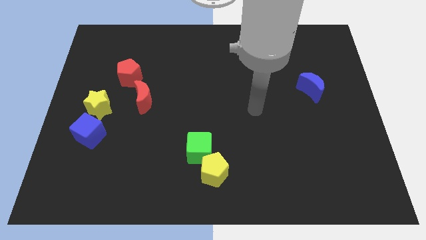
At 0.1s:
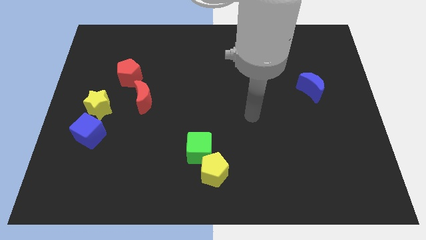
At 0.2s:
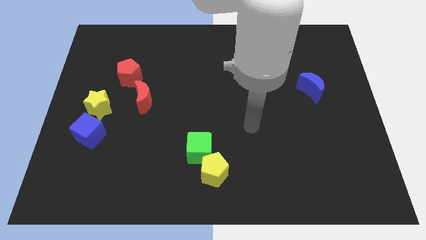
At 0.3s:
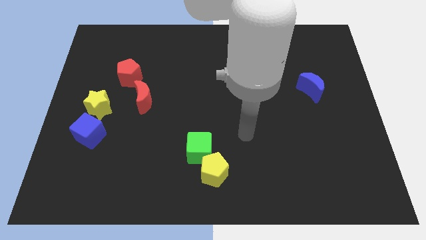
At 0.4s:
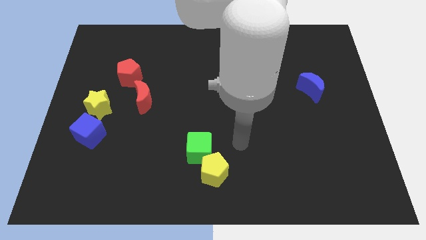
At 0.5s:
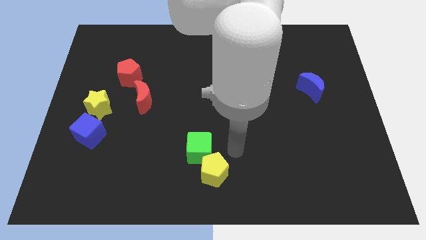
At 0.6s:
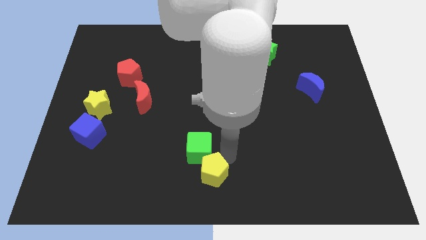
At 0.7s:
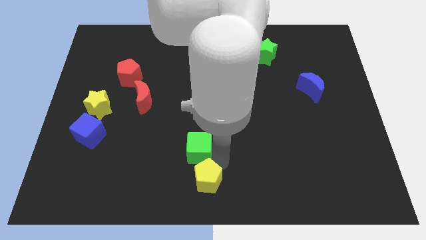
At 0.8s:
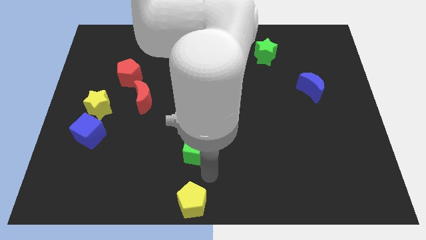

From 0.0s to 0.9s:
move the green cube away from the yellow pentagon

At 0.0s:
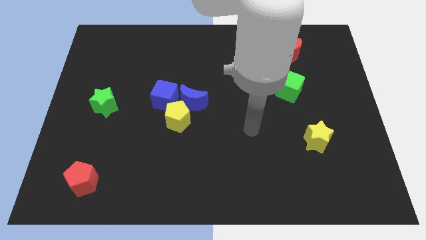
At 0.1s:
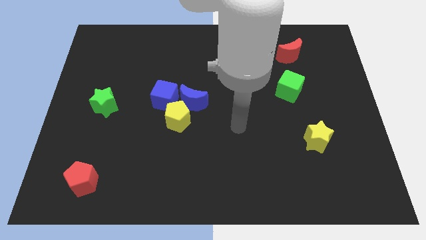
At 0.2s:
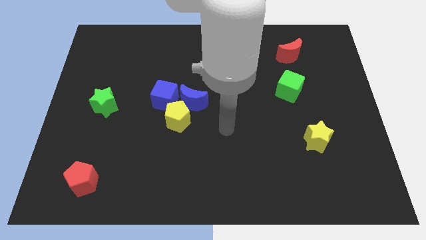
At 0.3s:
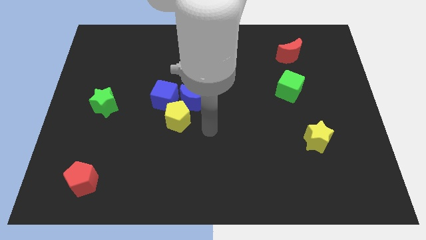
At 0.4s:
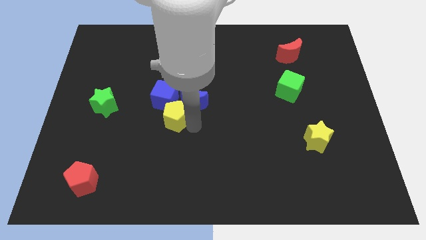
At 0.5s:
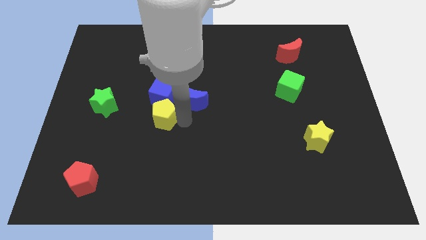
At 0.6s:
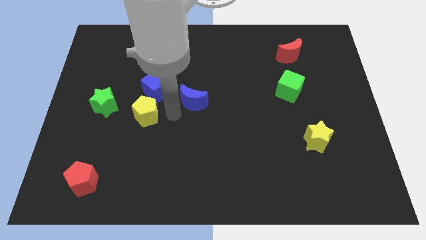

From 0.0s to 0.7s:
separate the blue moon from the yellow pentagon and blue cube

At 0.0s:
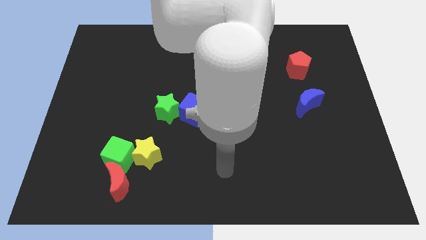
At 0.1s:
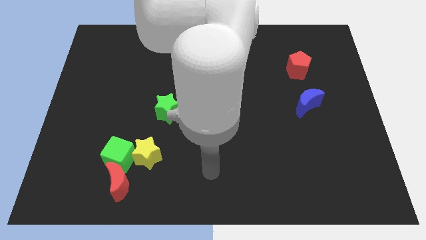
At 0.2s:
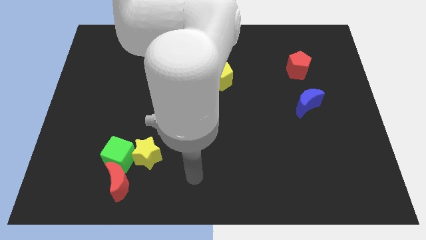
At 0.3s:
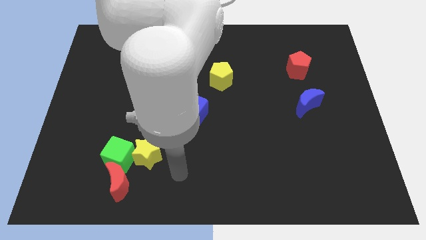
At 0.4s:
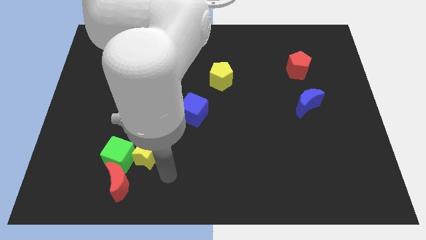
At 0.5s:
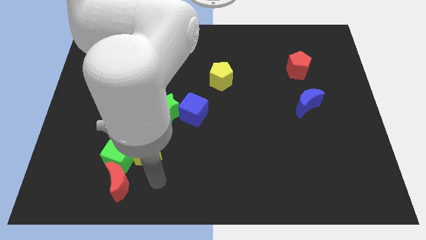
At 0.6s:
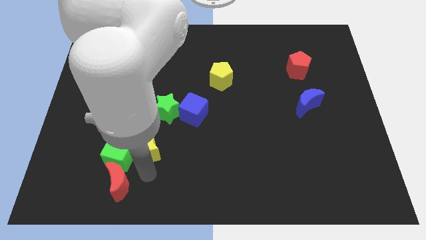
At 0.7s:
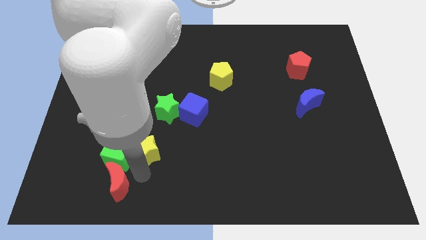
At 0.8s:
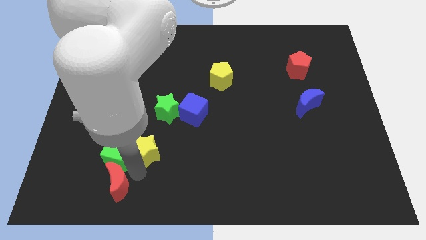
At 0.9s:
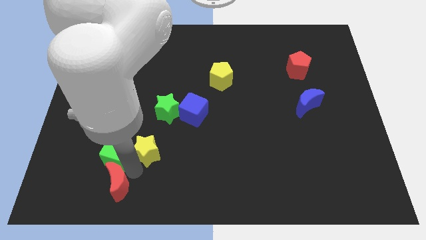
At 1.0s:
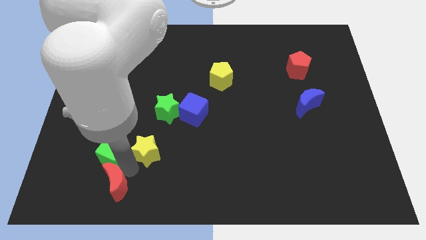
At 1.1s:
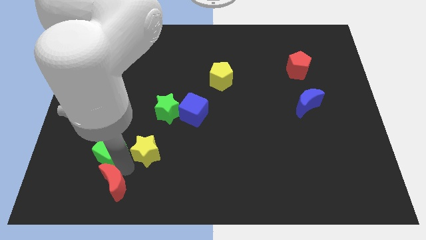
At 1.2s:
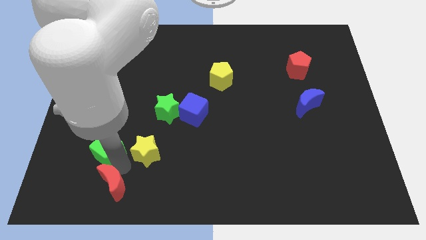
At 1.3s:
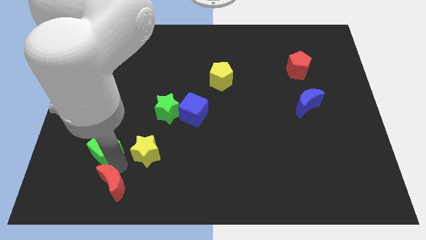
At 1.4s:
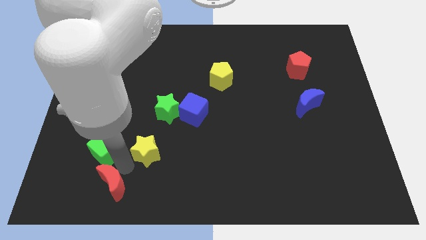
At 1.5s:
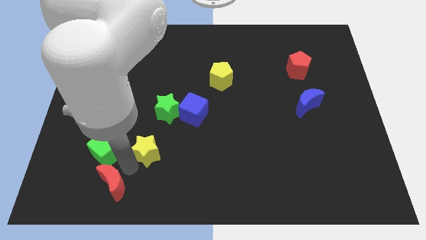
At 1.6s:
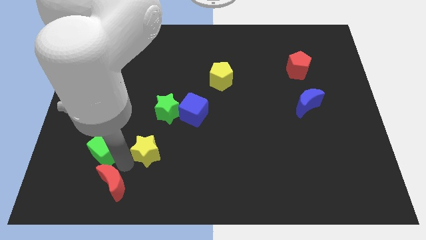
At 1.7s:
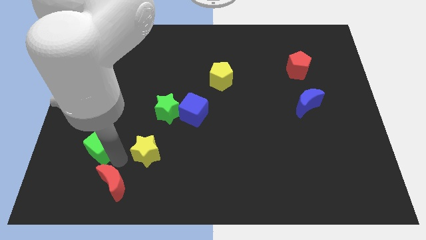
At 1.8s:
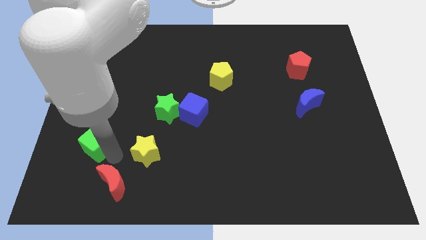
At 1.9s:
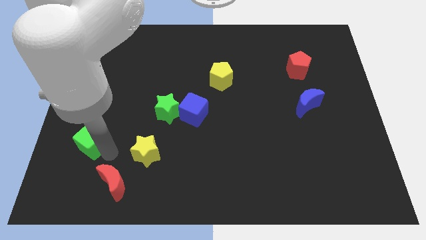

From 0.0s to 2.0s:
move the green cube away from the yellow star and red moon

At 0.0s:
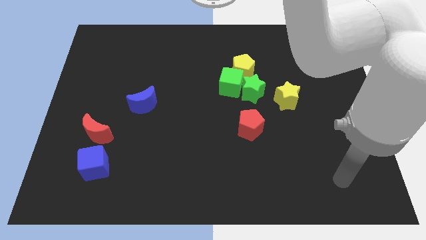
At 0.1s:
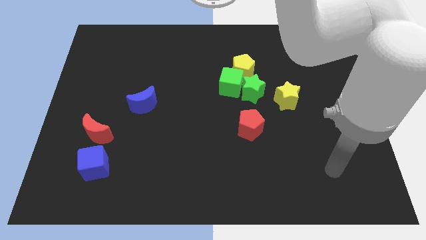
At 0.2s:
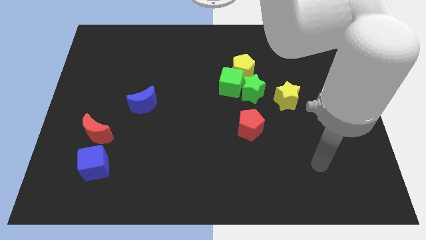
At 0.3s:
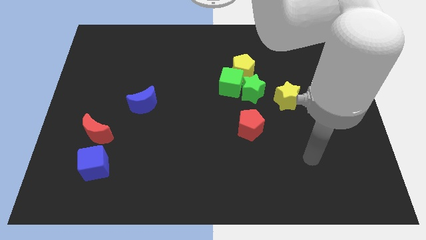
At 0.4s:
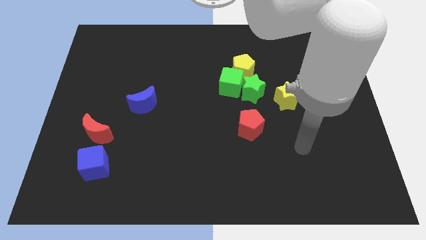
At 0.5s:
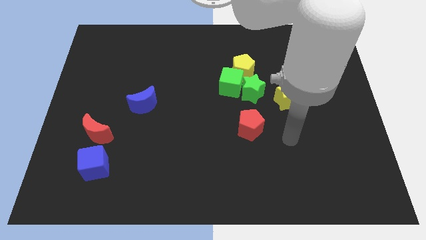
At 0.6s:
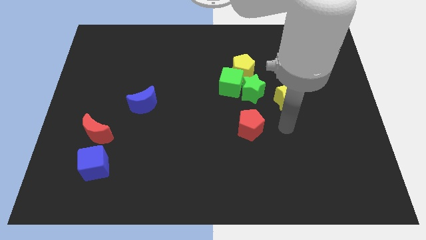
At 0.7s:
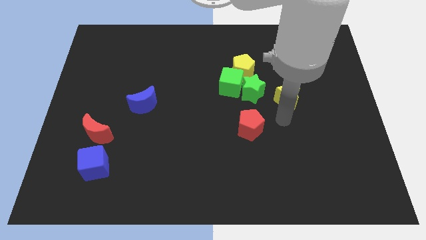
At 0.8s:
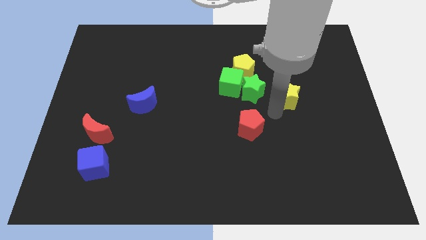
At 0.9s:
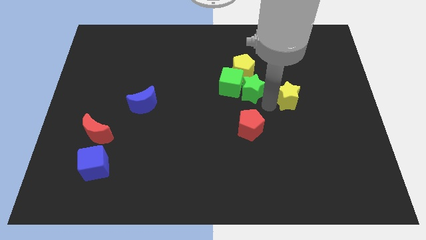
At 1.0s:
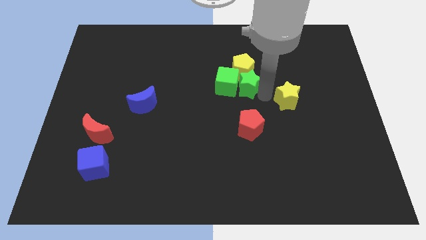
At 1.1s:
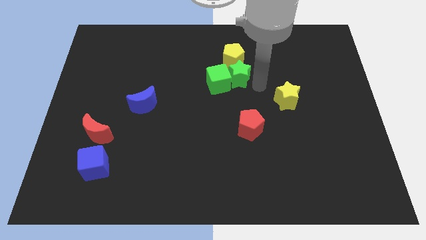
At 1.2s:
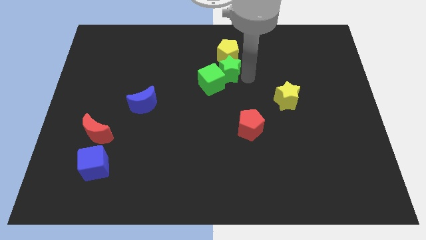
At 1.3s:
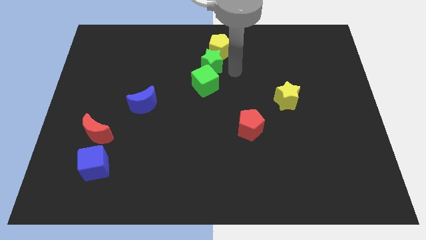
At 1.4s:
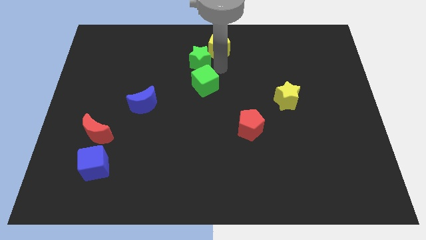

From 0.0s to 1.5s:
pull the green cube apart from the green star and yellow pentagon

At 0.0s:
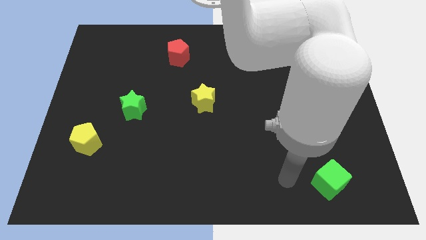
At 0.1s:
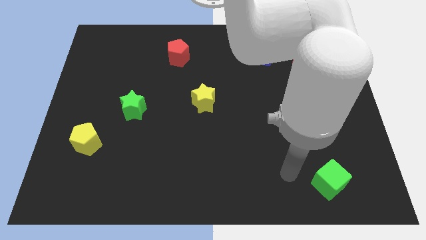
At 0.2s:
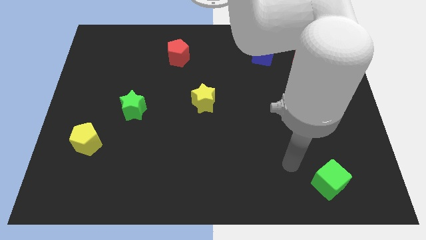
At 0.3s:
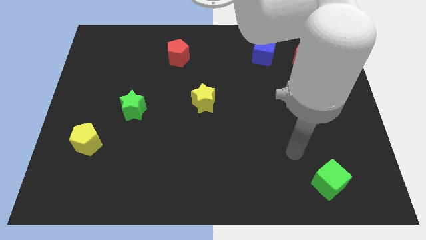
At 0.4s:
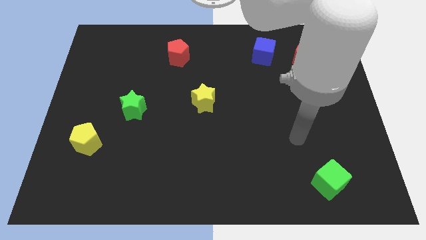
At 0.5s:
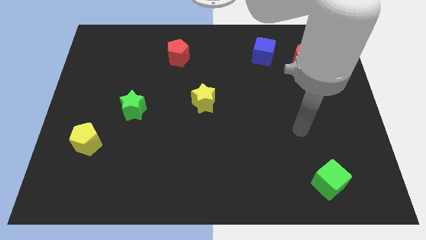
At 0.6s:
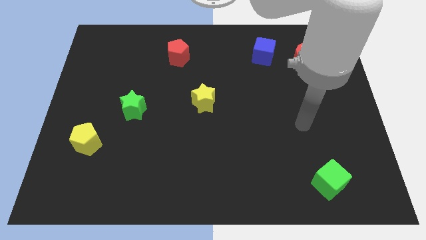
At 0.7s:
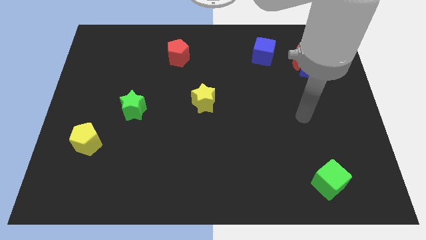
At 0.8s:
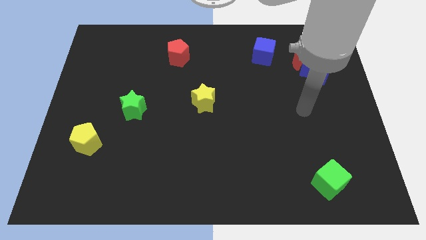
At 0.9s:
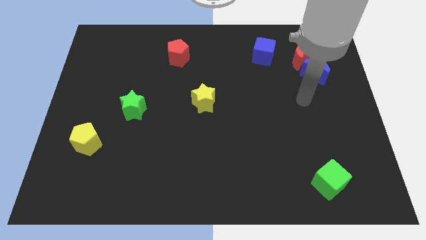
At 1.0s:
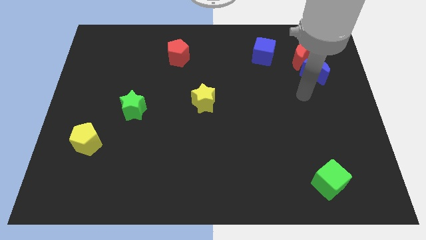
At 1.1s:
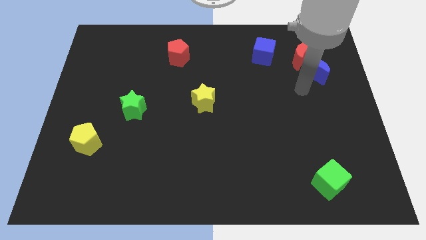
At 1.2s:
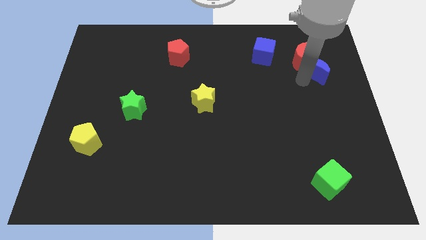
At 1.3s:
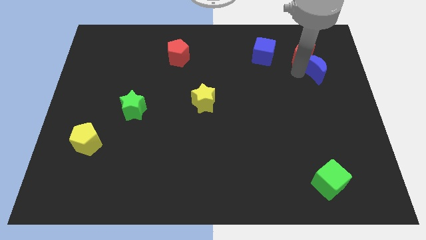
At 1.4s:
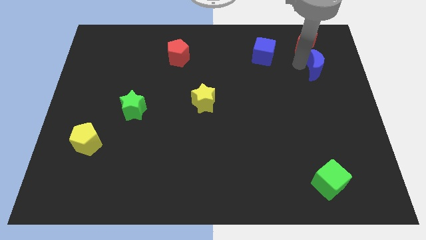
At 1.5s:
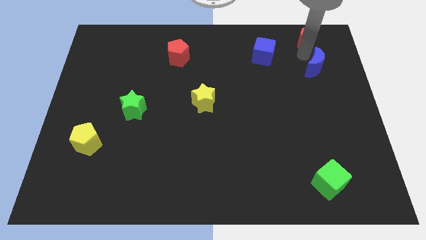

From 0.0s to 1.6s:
move the blue moon away from the red moon

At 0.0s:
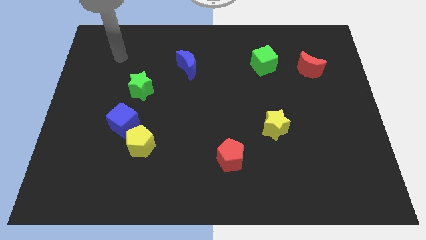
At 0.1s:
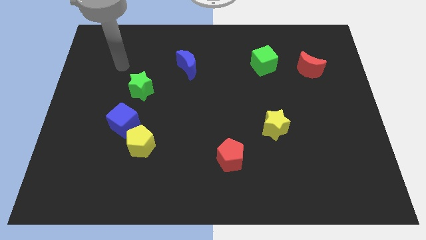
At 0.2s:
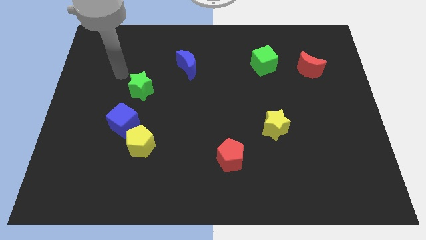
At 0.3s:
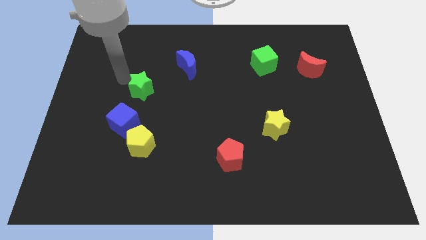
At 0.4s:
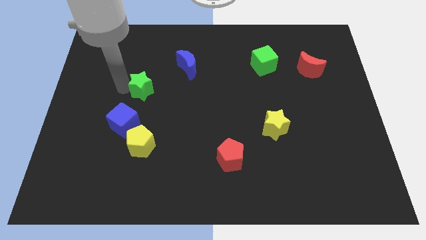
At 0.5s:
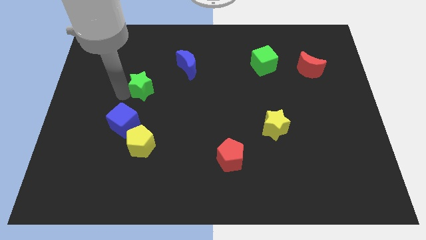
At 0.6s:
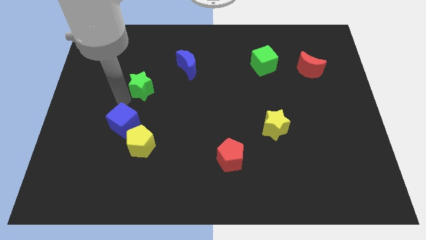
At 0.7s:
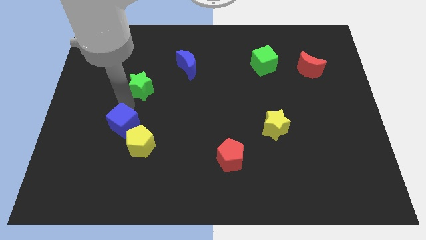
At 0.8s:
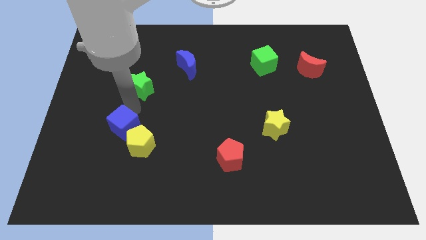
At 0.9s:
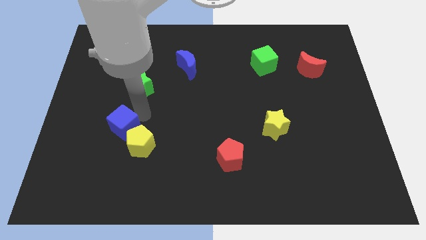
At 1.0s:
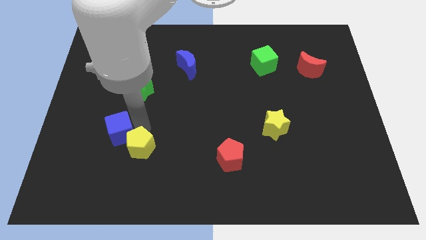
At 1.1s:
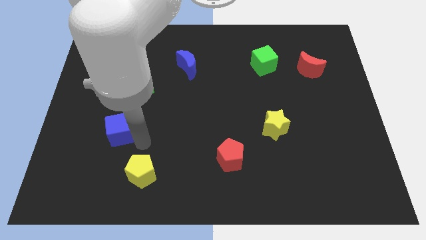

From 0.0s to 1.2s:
pull the blue cube apart from the yellow pentagon

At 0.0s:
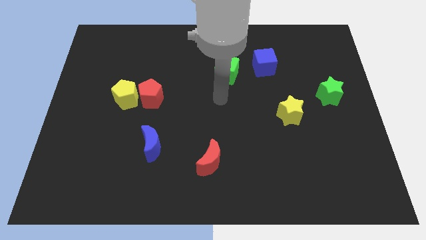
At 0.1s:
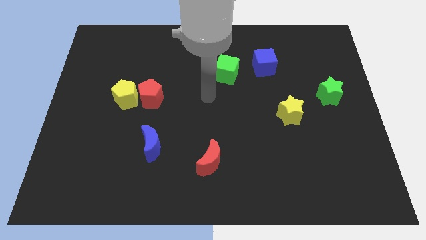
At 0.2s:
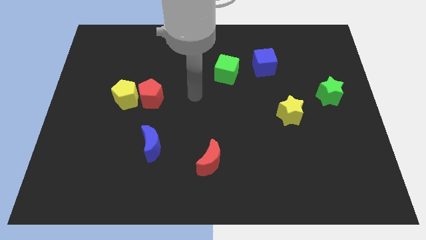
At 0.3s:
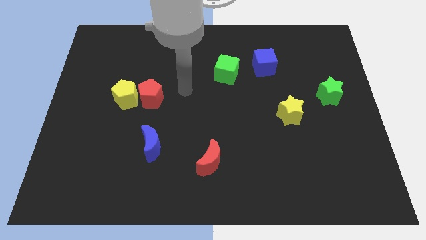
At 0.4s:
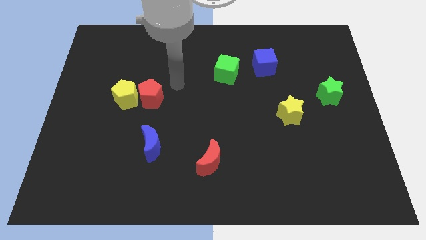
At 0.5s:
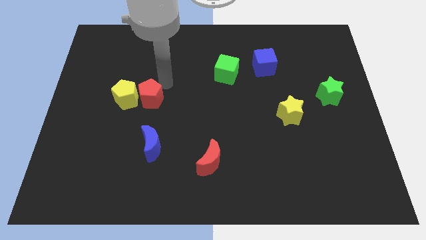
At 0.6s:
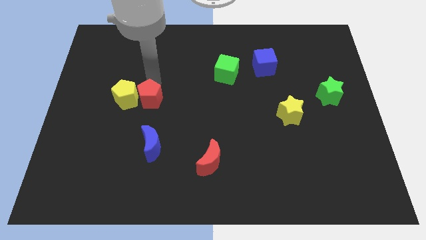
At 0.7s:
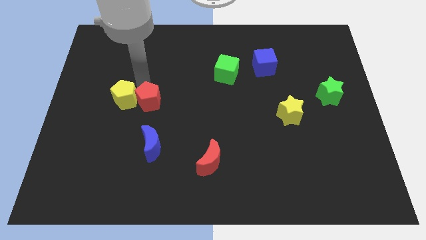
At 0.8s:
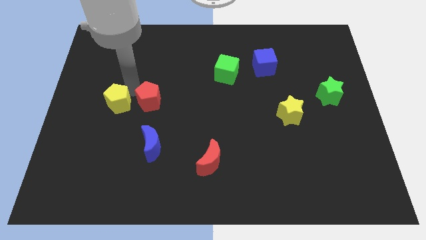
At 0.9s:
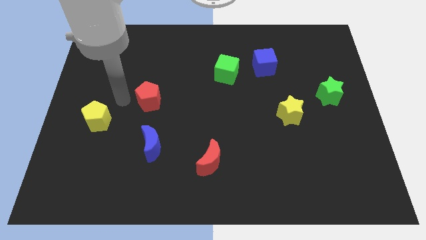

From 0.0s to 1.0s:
separate the red pentagon from the yellow pentagon

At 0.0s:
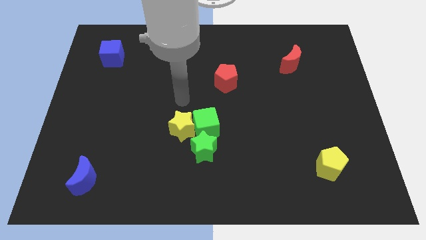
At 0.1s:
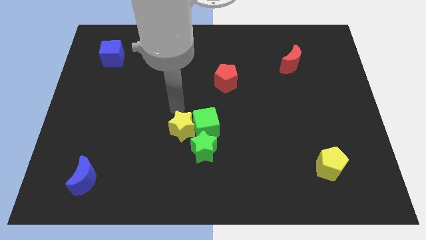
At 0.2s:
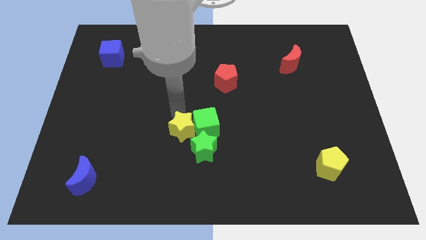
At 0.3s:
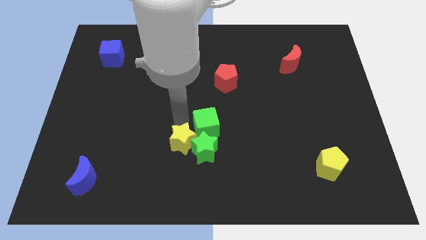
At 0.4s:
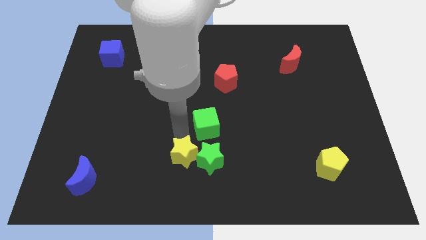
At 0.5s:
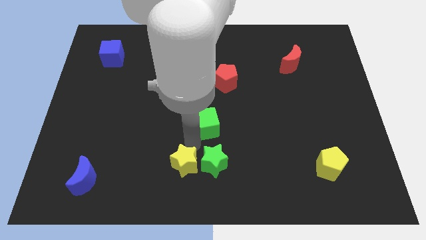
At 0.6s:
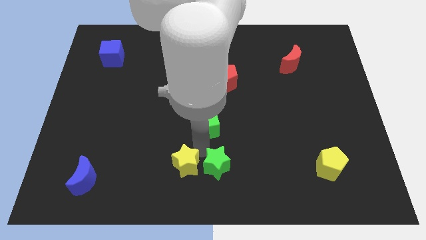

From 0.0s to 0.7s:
separate the green cube from the yellow star and green star
